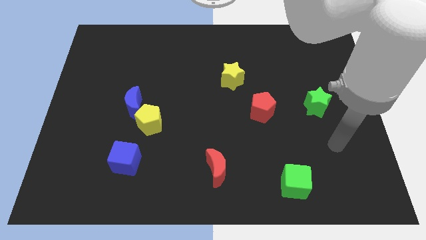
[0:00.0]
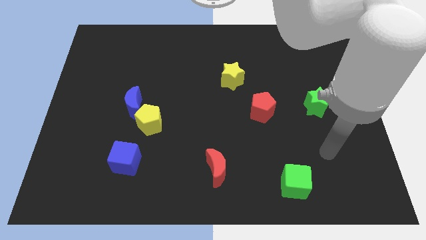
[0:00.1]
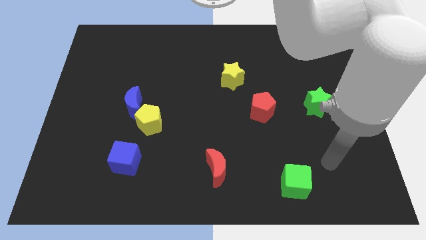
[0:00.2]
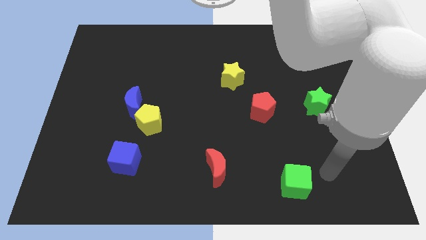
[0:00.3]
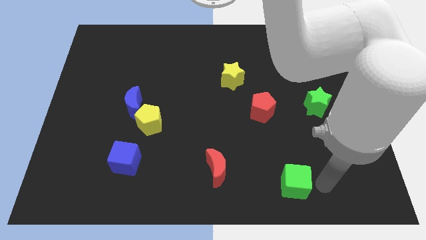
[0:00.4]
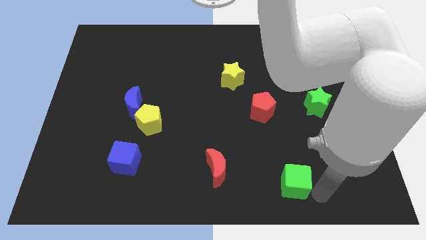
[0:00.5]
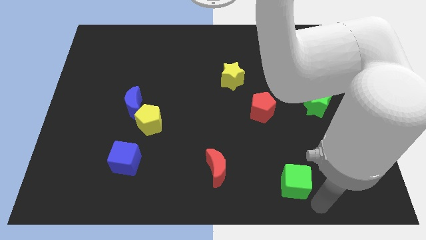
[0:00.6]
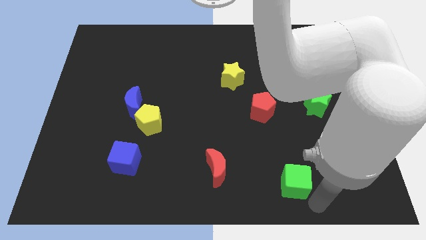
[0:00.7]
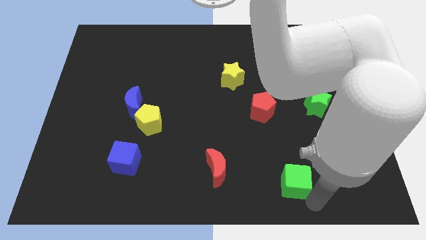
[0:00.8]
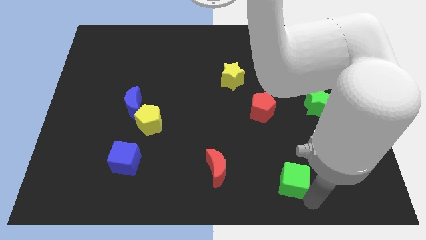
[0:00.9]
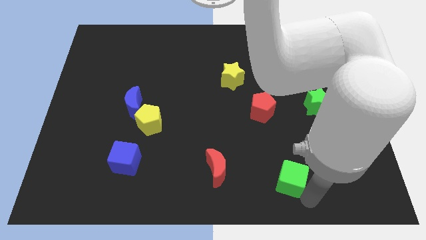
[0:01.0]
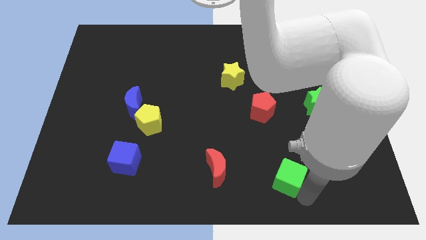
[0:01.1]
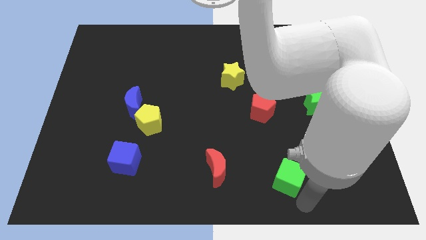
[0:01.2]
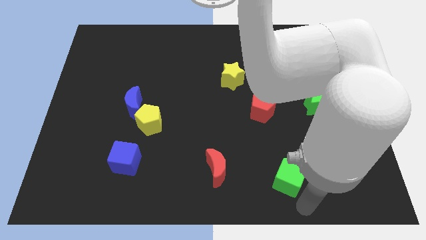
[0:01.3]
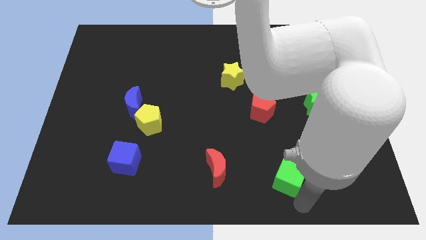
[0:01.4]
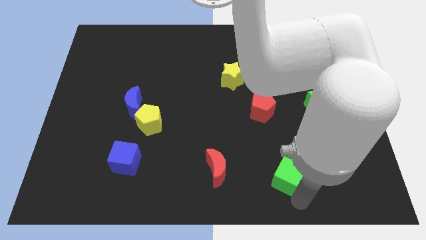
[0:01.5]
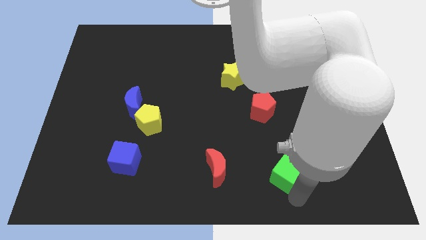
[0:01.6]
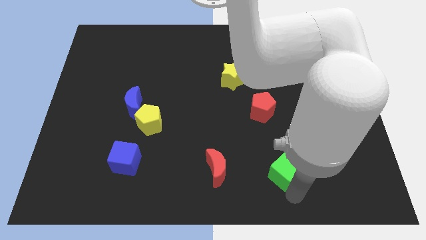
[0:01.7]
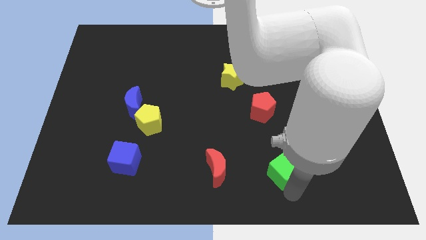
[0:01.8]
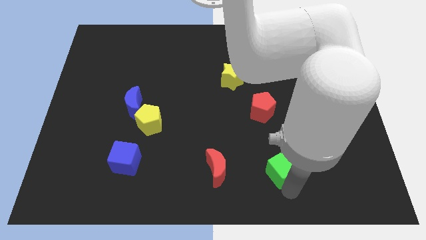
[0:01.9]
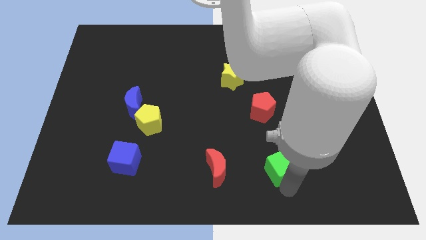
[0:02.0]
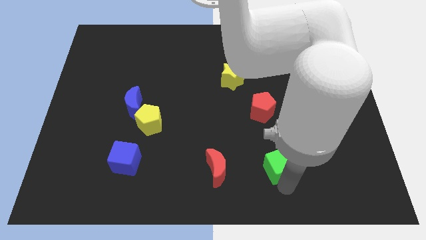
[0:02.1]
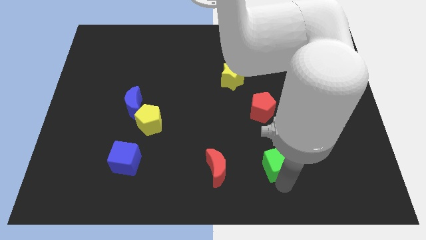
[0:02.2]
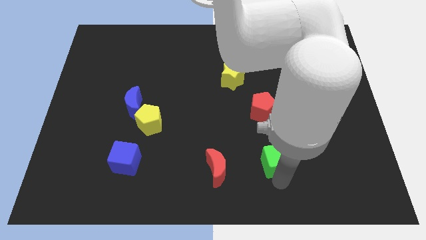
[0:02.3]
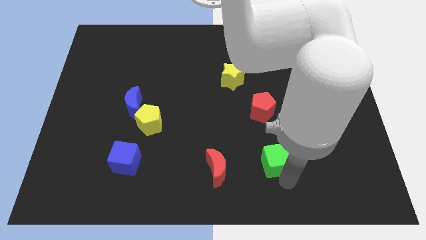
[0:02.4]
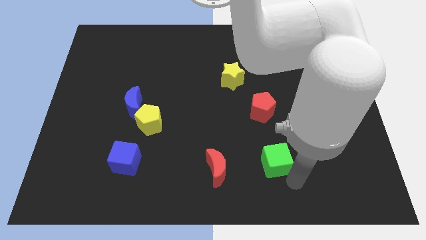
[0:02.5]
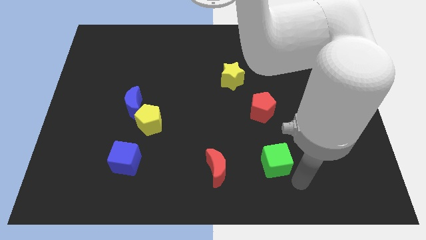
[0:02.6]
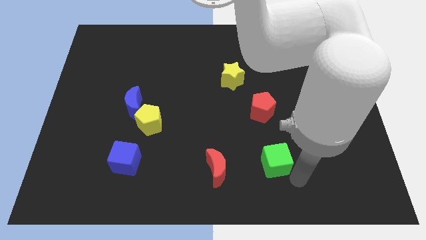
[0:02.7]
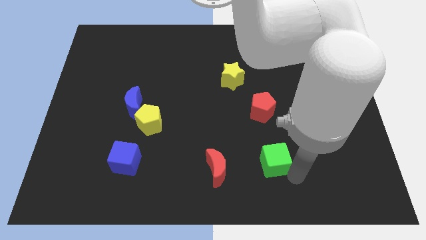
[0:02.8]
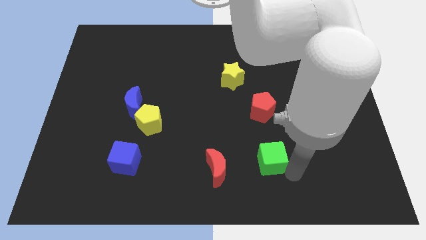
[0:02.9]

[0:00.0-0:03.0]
slightly push the green cube upwards and left diagonally

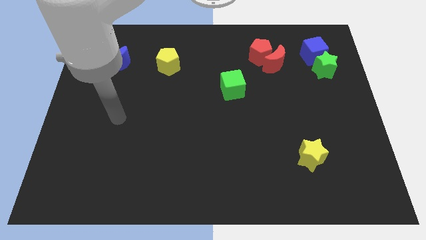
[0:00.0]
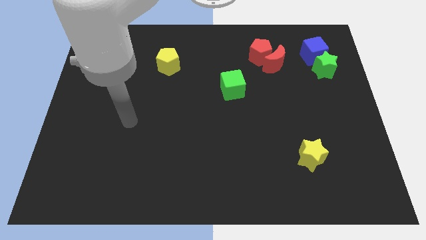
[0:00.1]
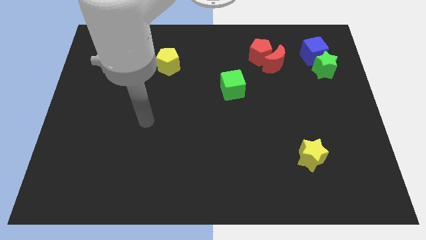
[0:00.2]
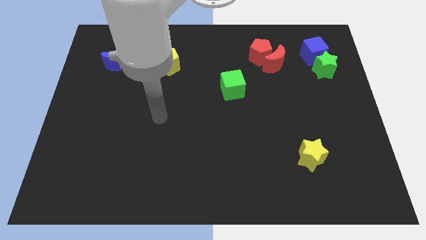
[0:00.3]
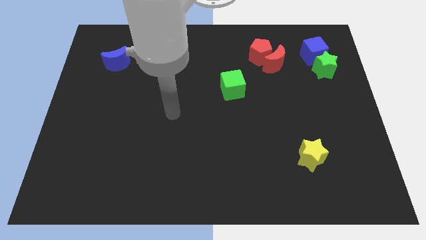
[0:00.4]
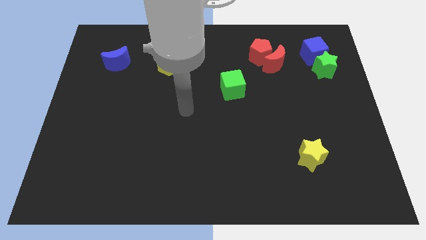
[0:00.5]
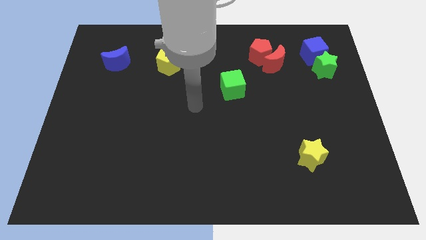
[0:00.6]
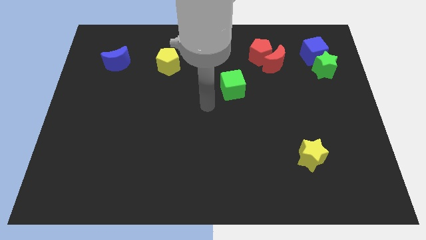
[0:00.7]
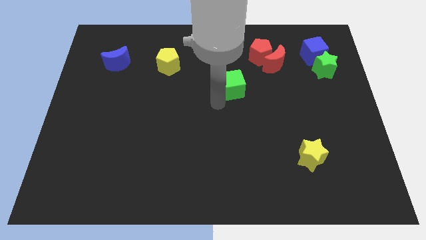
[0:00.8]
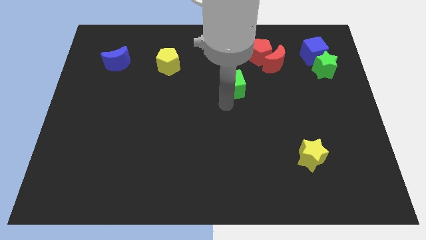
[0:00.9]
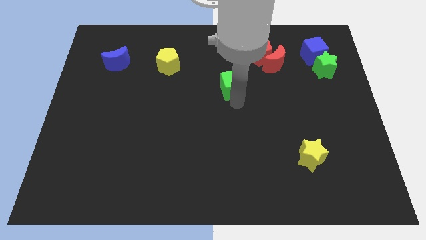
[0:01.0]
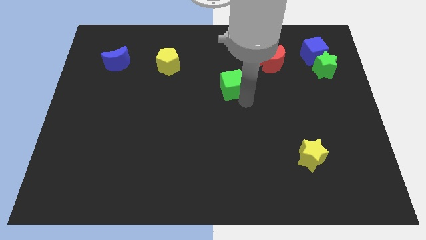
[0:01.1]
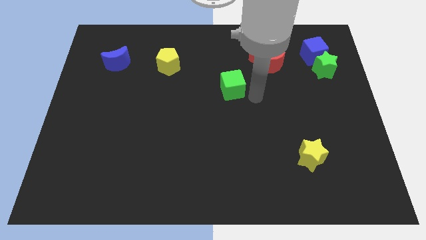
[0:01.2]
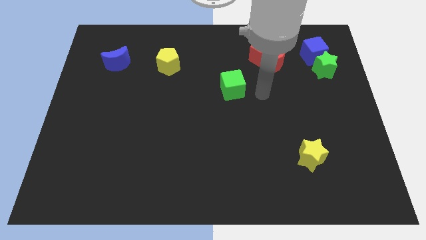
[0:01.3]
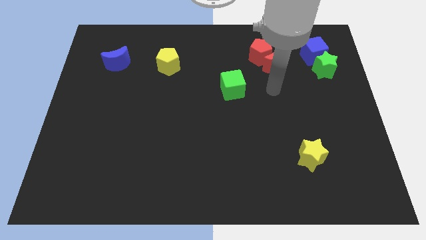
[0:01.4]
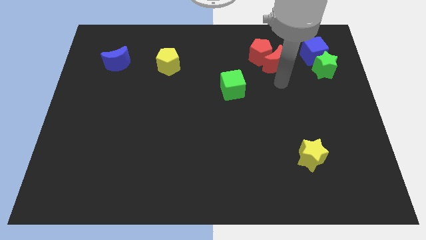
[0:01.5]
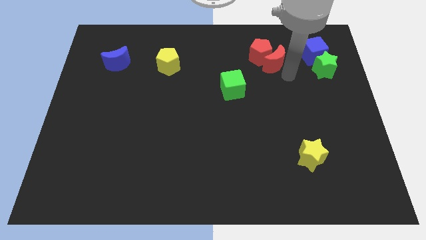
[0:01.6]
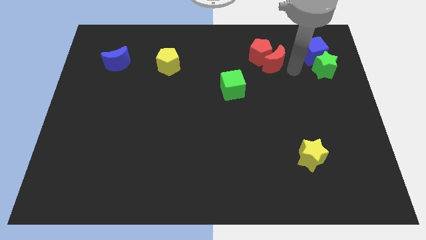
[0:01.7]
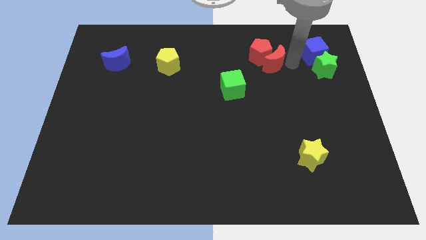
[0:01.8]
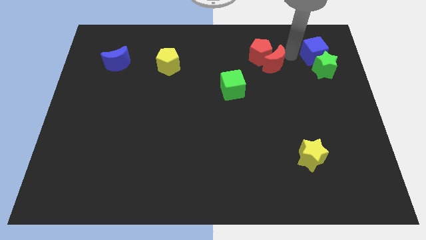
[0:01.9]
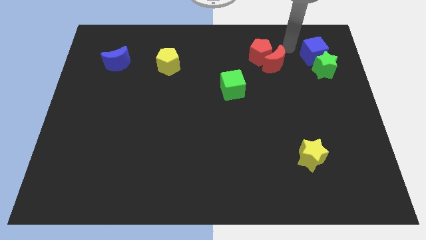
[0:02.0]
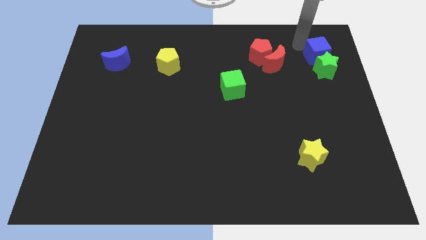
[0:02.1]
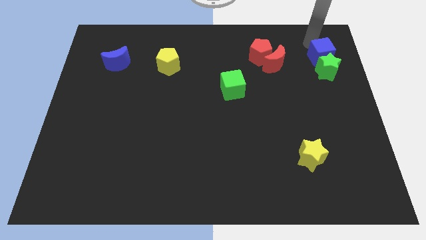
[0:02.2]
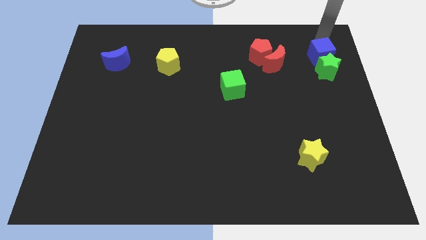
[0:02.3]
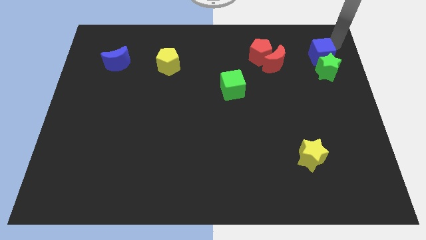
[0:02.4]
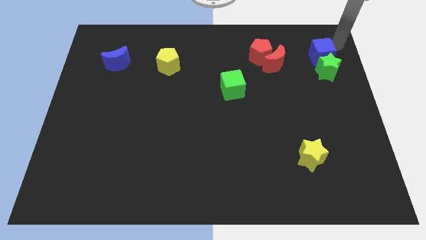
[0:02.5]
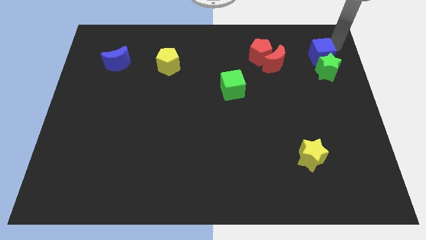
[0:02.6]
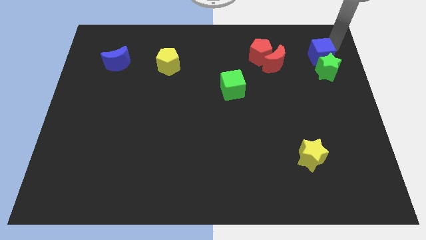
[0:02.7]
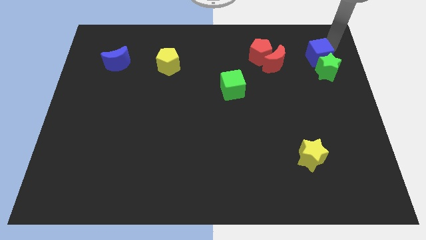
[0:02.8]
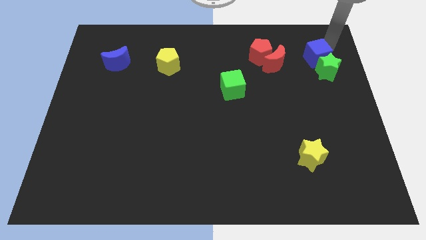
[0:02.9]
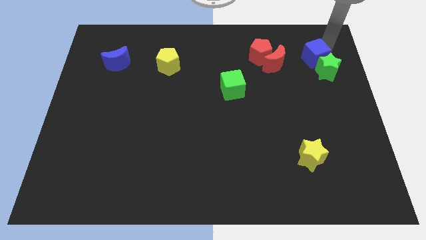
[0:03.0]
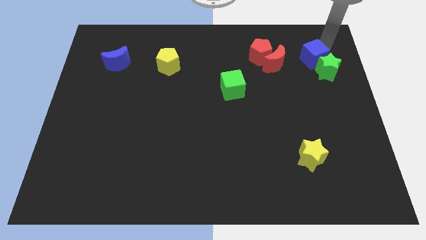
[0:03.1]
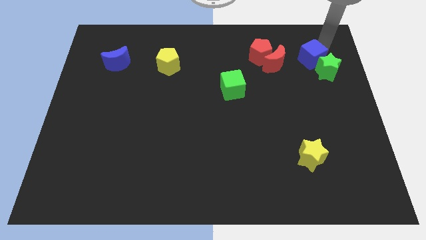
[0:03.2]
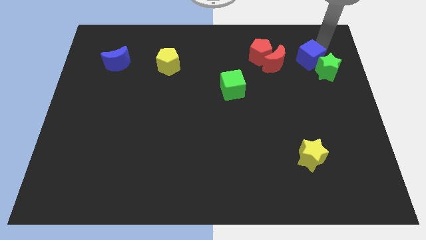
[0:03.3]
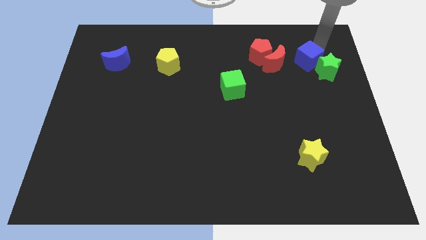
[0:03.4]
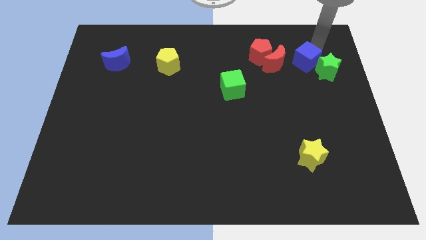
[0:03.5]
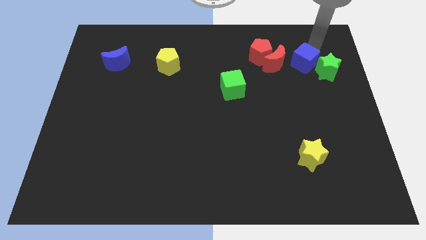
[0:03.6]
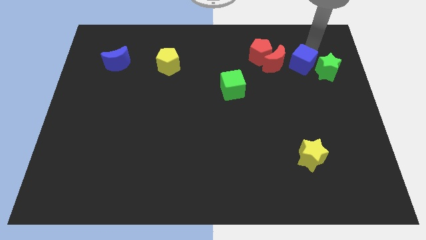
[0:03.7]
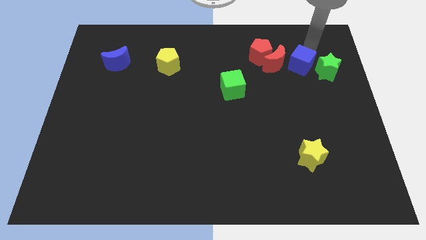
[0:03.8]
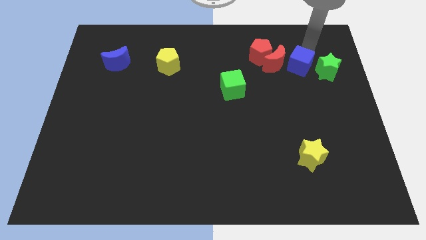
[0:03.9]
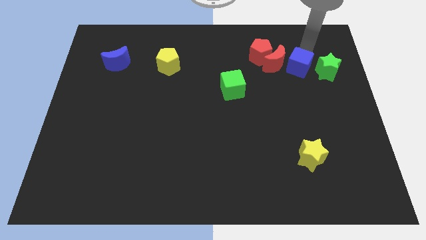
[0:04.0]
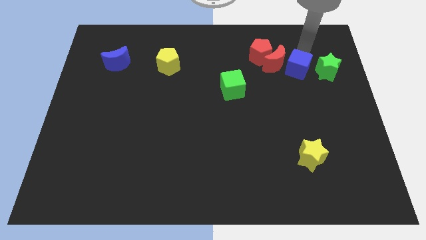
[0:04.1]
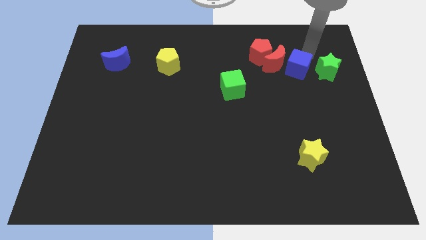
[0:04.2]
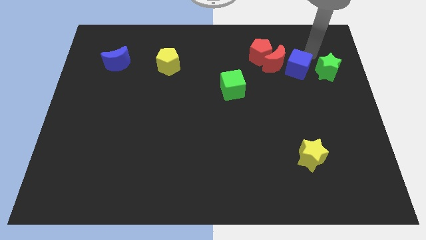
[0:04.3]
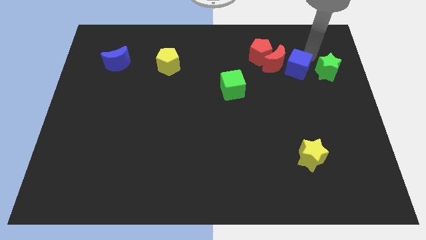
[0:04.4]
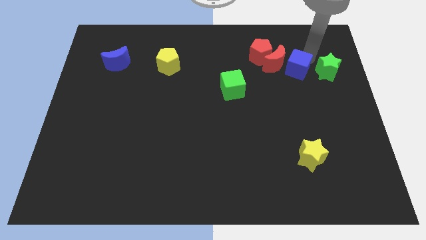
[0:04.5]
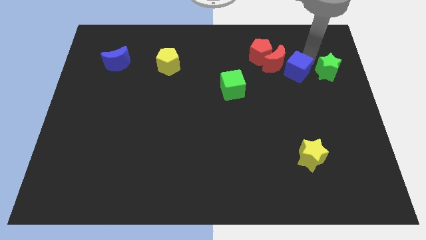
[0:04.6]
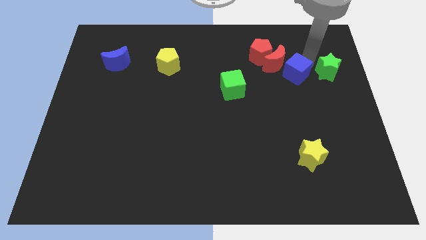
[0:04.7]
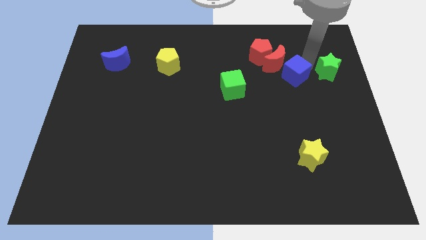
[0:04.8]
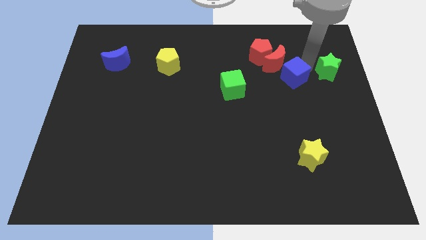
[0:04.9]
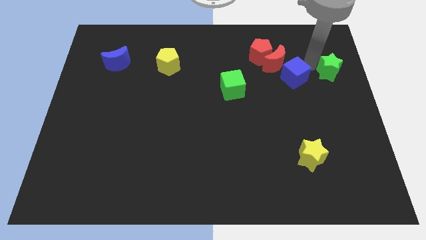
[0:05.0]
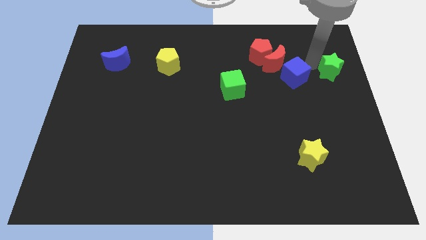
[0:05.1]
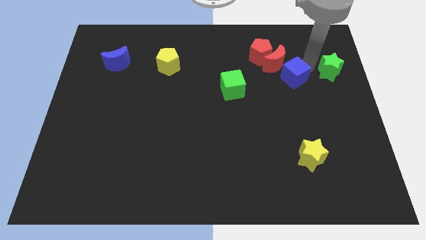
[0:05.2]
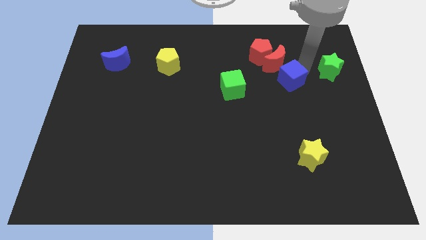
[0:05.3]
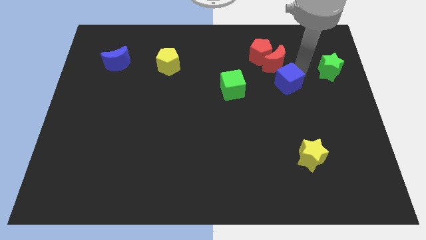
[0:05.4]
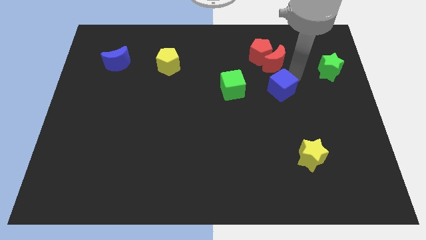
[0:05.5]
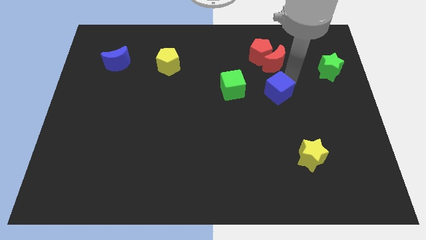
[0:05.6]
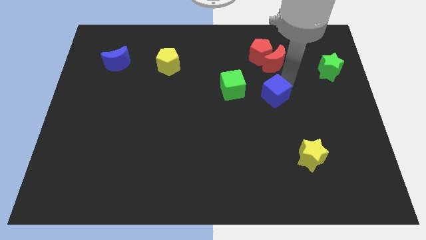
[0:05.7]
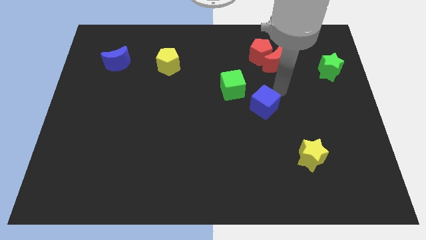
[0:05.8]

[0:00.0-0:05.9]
slide the blue cube downwards and then to the left
